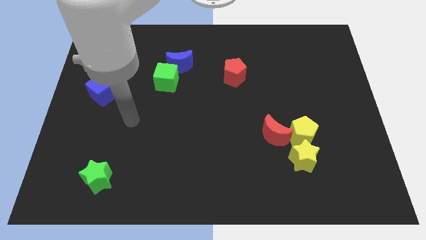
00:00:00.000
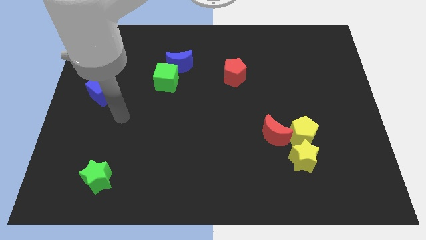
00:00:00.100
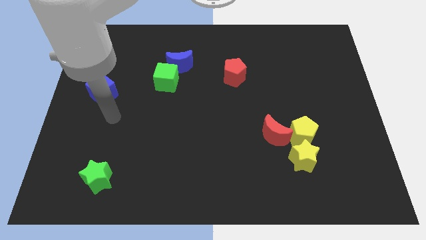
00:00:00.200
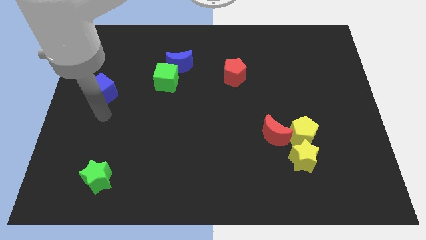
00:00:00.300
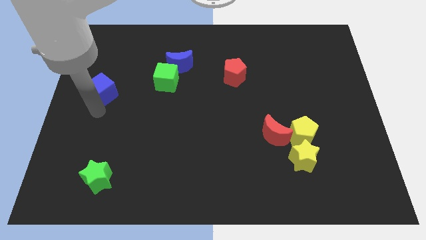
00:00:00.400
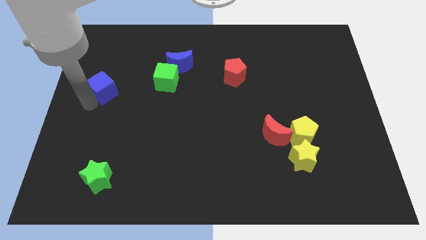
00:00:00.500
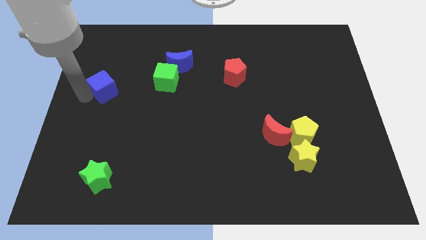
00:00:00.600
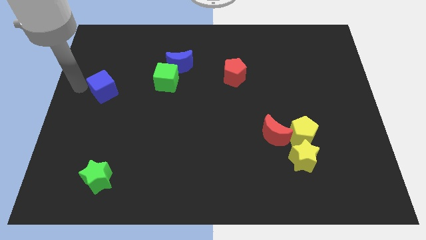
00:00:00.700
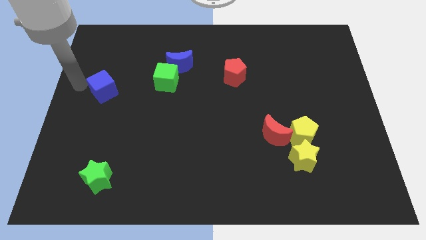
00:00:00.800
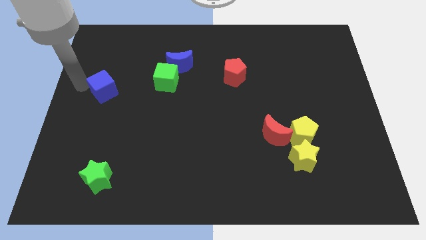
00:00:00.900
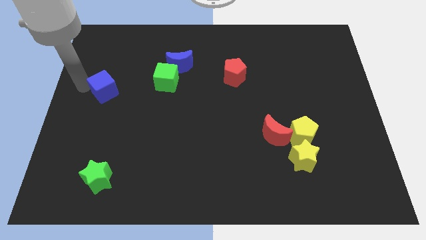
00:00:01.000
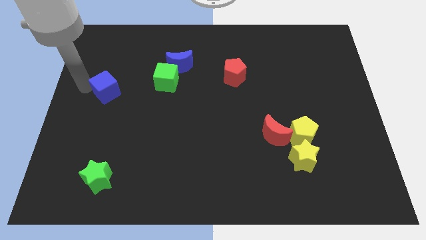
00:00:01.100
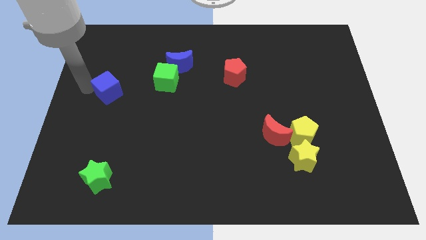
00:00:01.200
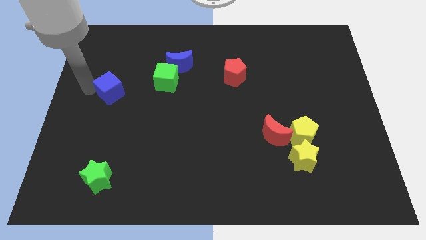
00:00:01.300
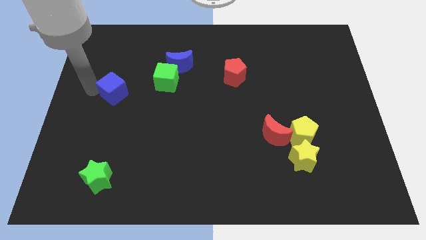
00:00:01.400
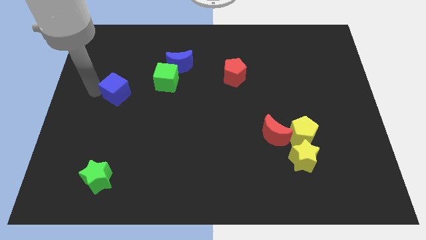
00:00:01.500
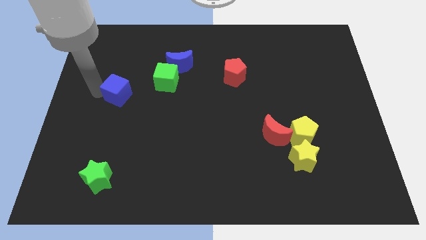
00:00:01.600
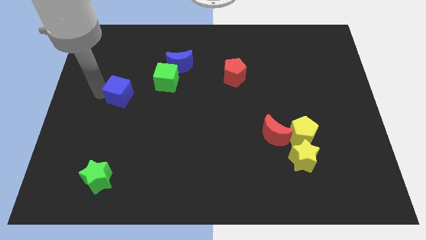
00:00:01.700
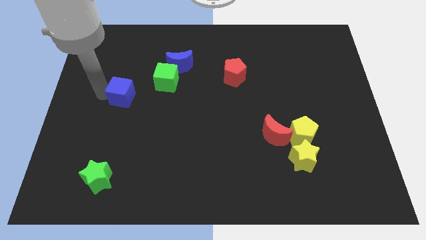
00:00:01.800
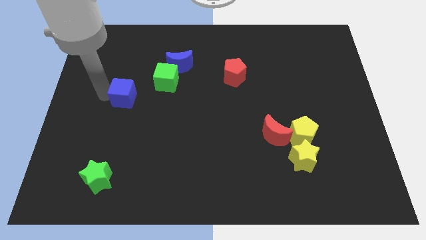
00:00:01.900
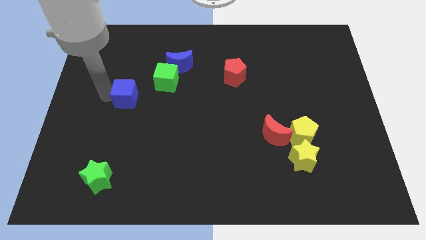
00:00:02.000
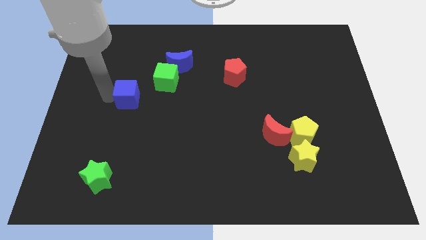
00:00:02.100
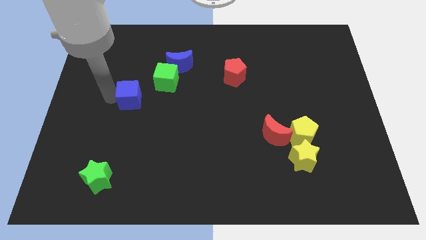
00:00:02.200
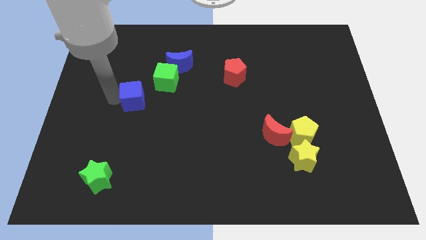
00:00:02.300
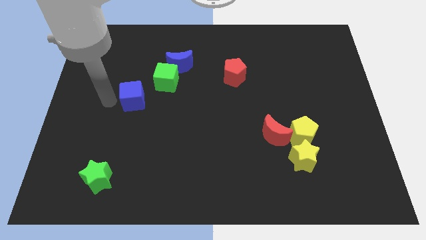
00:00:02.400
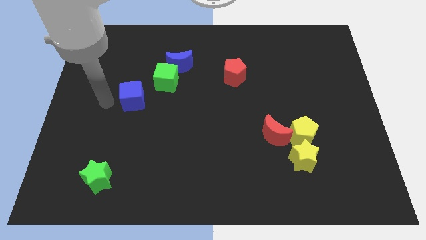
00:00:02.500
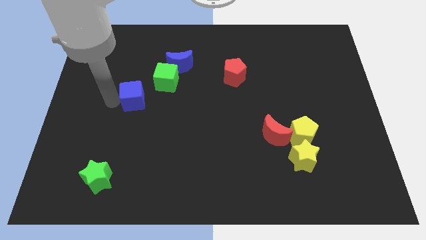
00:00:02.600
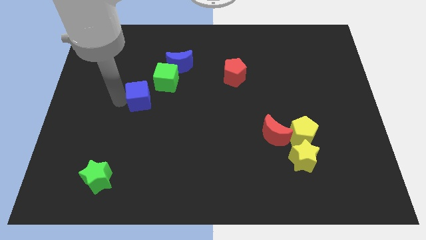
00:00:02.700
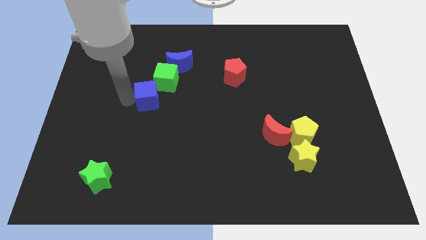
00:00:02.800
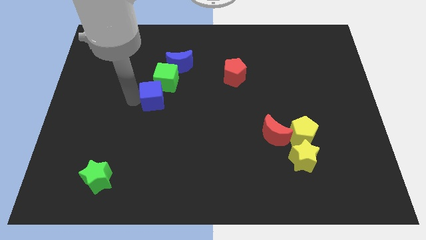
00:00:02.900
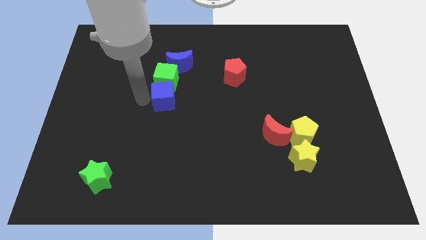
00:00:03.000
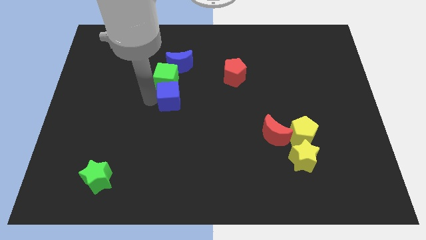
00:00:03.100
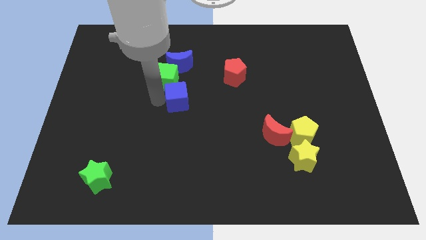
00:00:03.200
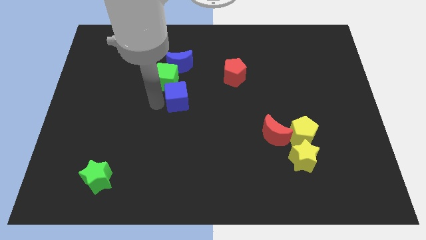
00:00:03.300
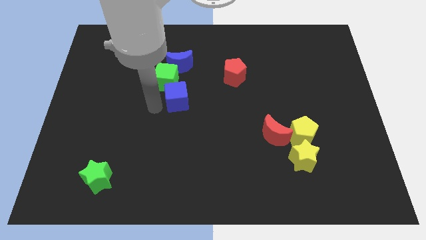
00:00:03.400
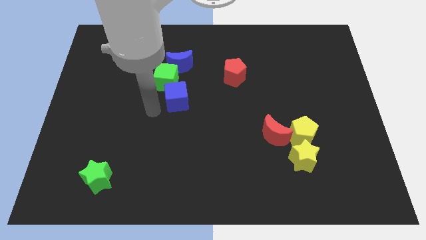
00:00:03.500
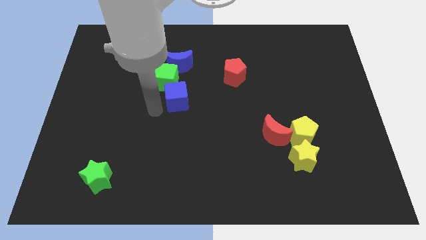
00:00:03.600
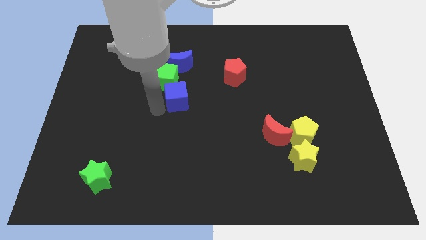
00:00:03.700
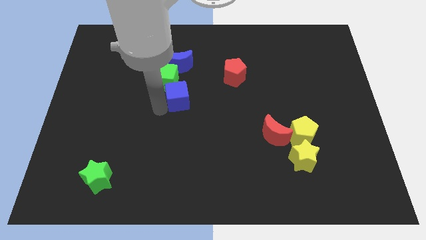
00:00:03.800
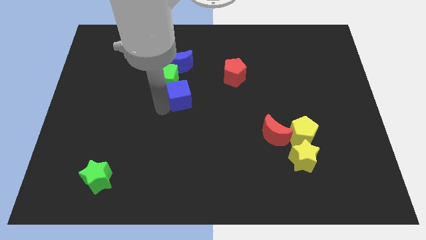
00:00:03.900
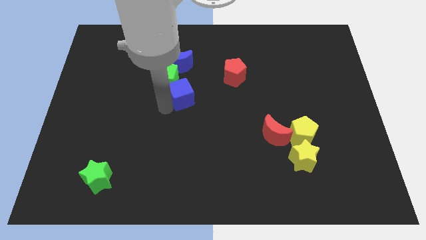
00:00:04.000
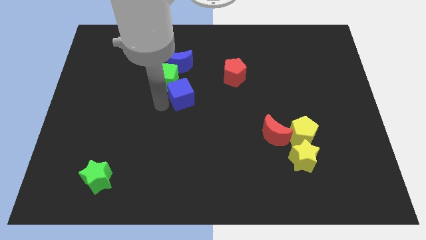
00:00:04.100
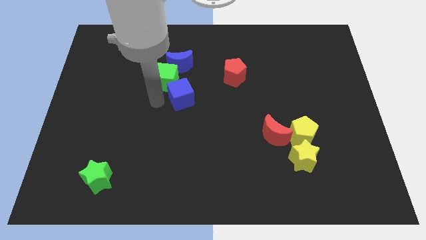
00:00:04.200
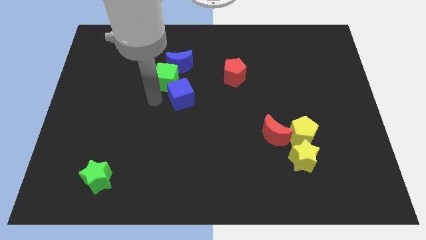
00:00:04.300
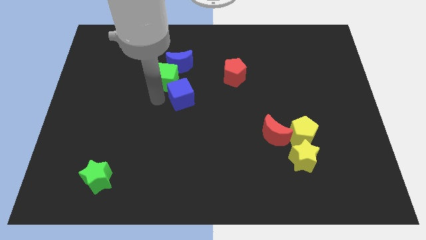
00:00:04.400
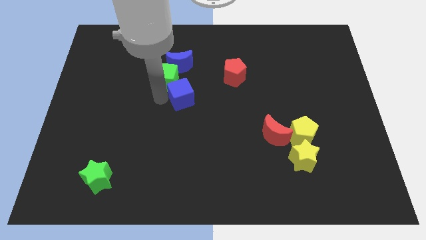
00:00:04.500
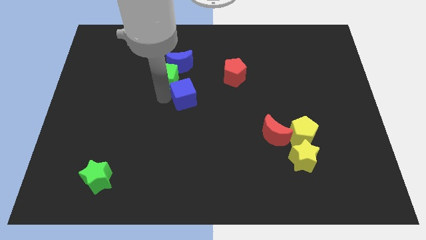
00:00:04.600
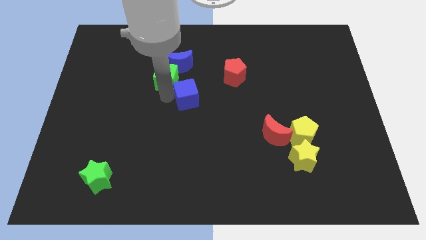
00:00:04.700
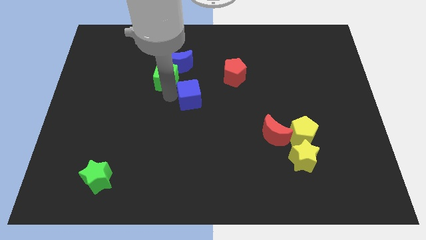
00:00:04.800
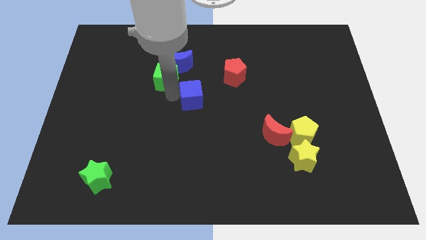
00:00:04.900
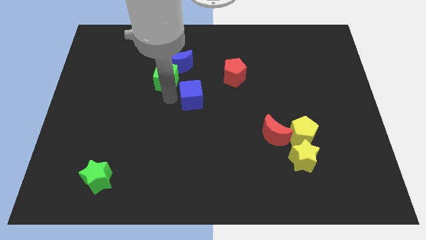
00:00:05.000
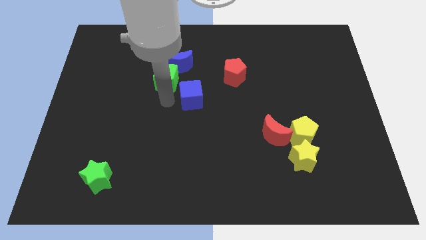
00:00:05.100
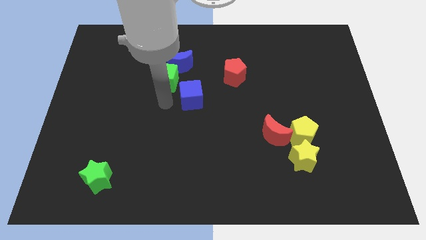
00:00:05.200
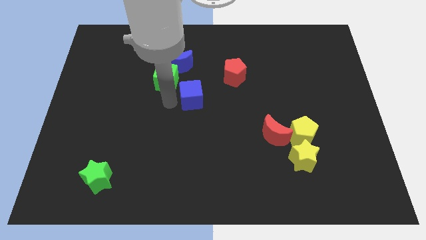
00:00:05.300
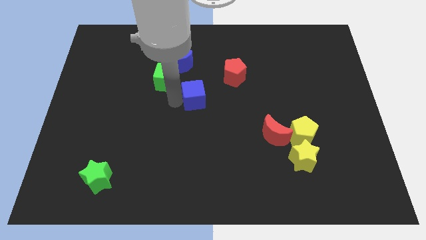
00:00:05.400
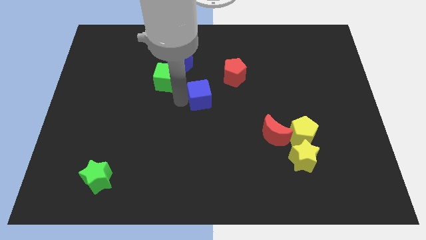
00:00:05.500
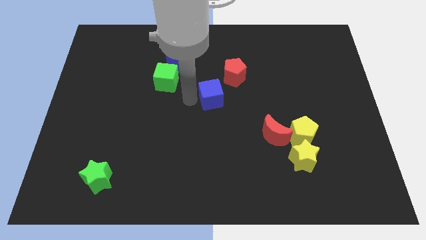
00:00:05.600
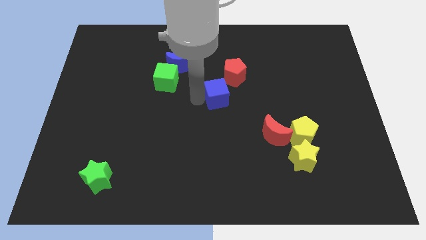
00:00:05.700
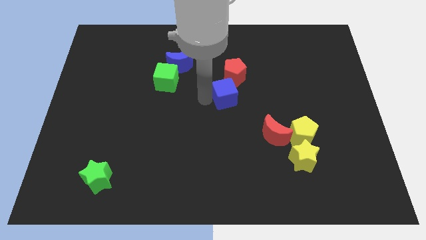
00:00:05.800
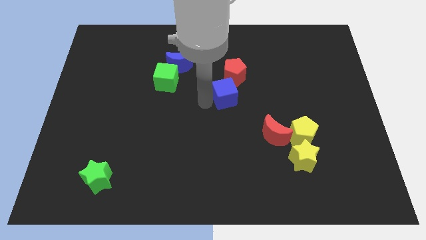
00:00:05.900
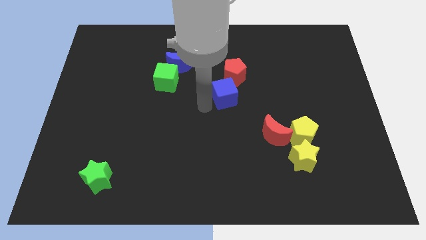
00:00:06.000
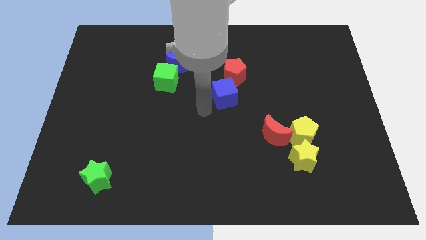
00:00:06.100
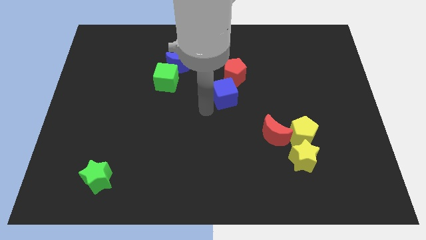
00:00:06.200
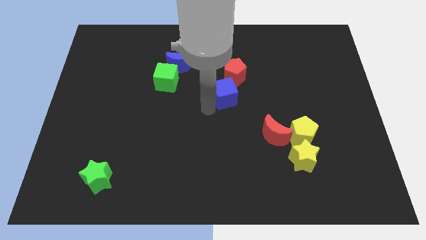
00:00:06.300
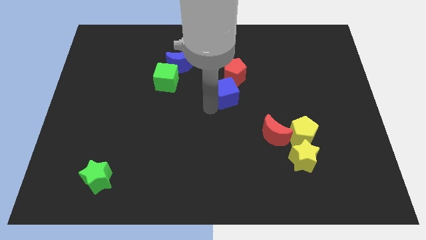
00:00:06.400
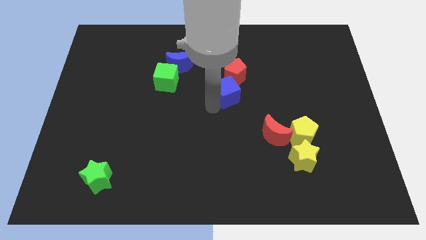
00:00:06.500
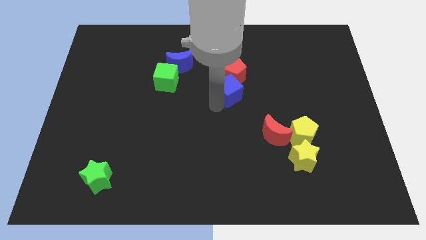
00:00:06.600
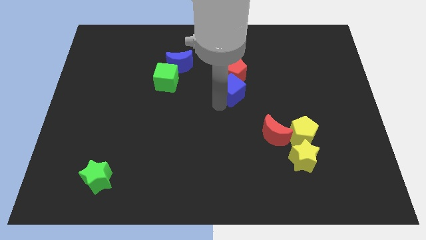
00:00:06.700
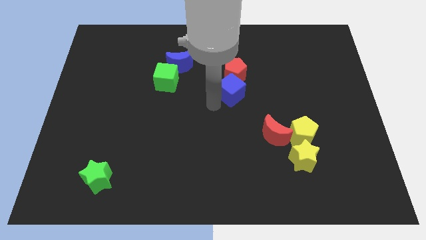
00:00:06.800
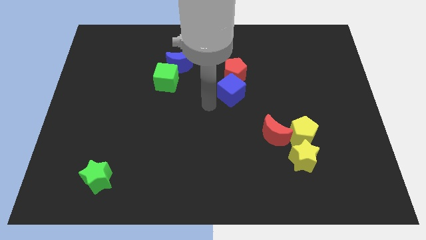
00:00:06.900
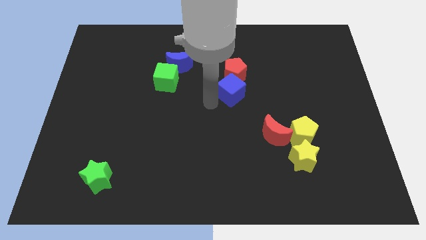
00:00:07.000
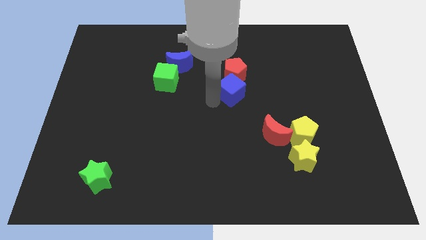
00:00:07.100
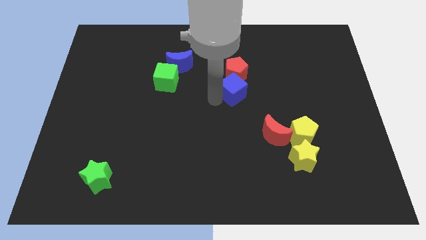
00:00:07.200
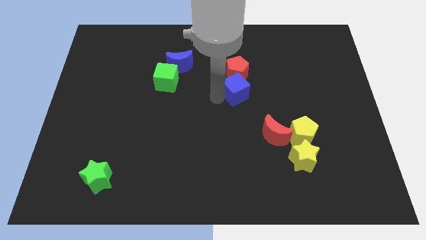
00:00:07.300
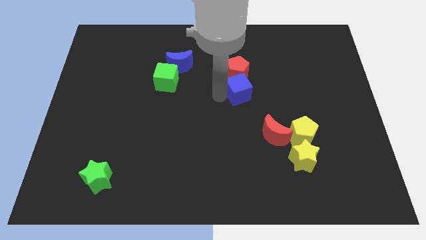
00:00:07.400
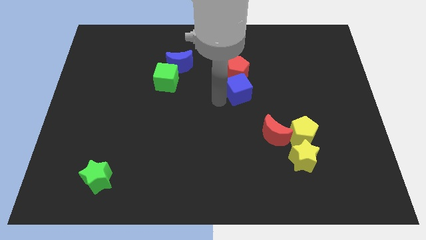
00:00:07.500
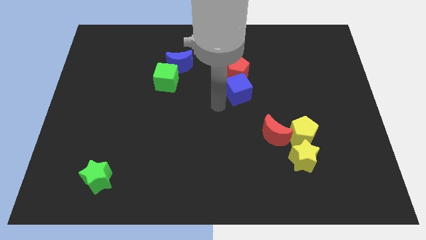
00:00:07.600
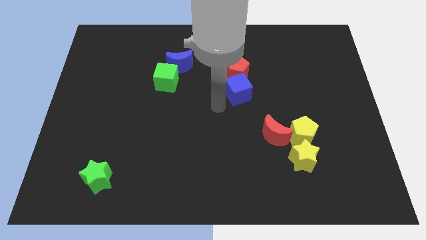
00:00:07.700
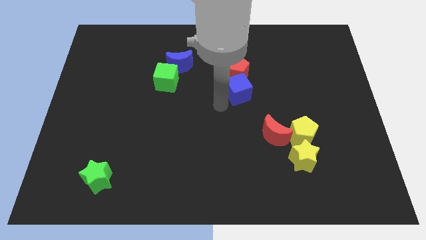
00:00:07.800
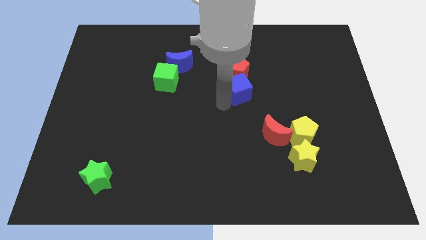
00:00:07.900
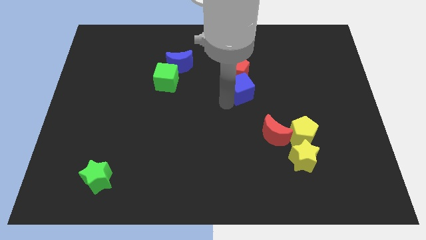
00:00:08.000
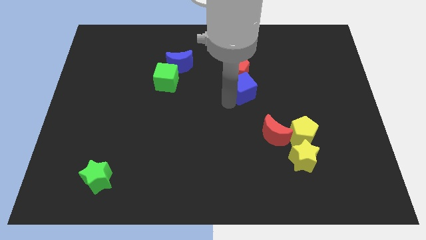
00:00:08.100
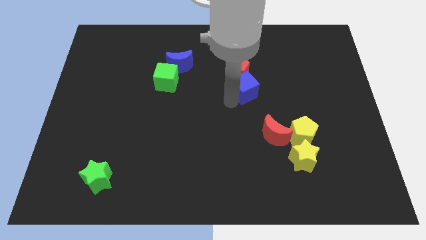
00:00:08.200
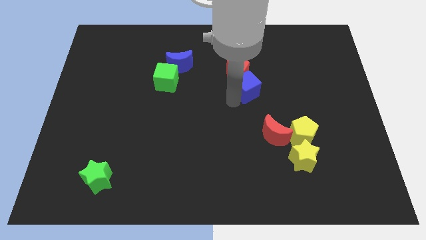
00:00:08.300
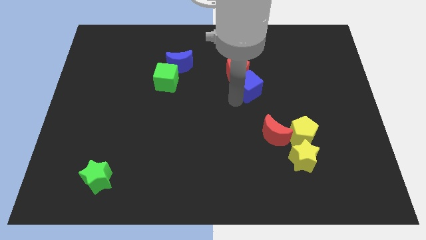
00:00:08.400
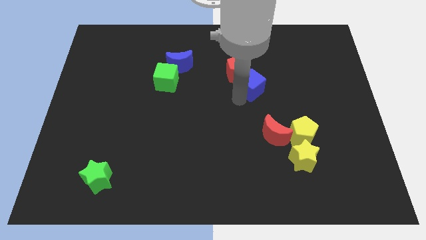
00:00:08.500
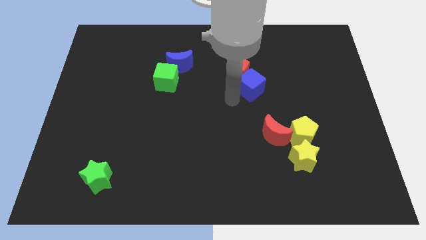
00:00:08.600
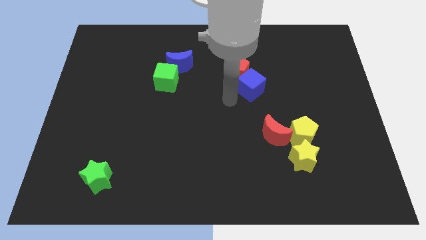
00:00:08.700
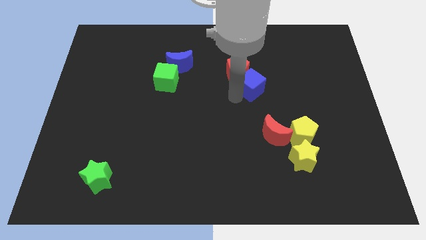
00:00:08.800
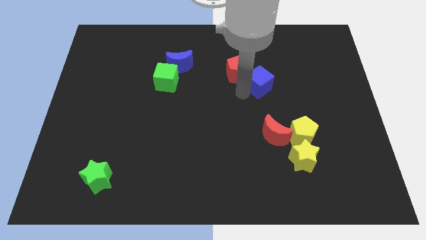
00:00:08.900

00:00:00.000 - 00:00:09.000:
slide the blue cube right of the red pentagon
